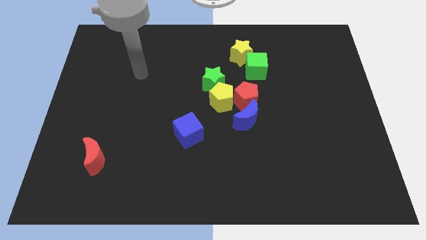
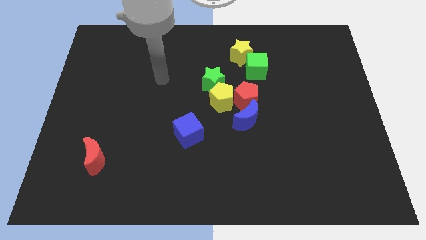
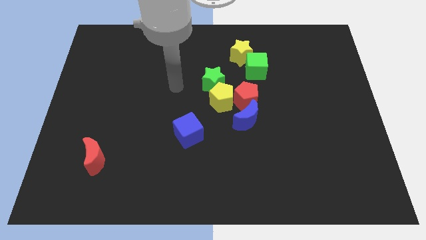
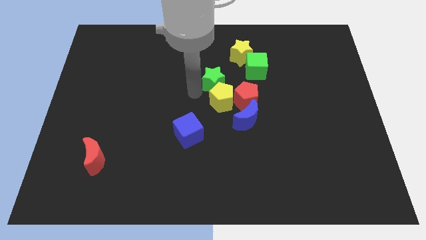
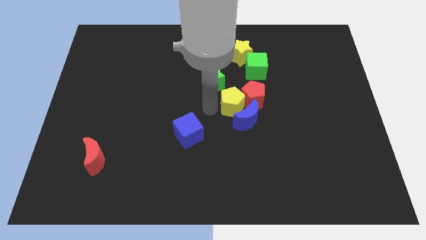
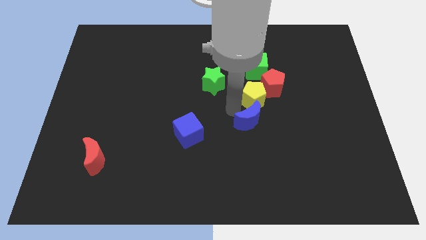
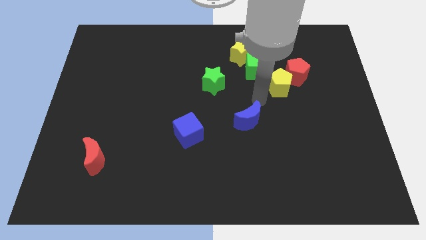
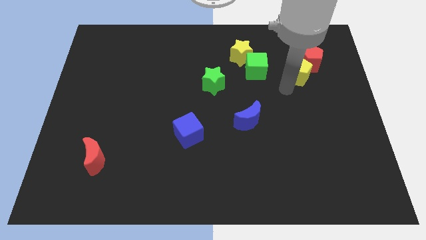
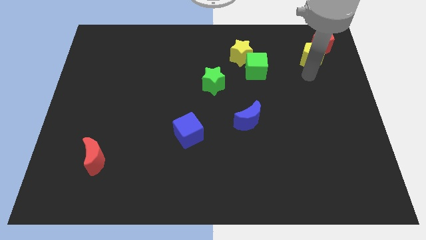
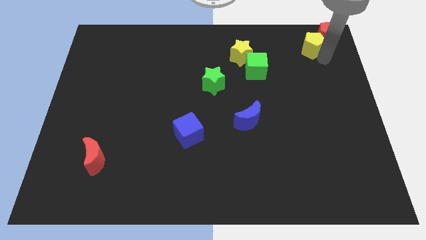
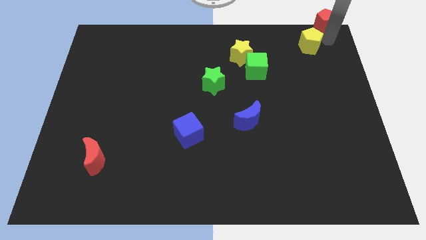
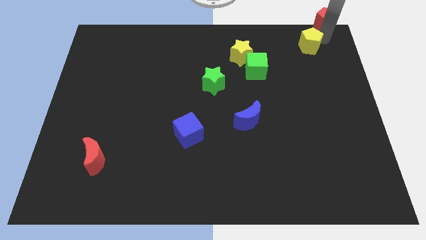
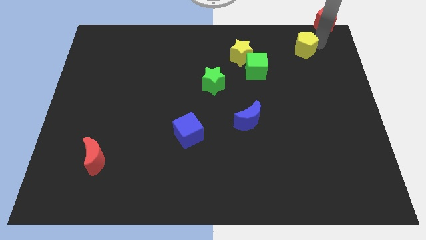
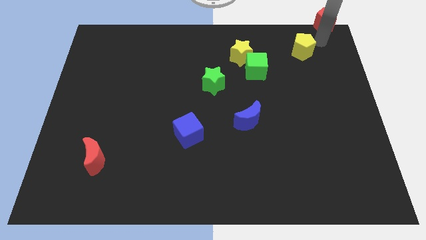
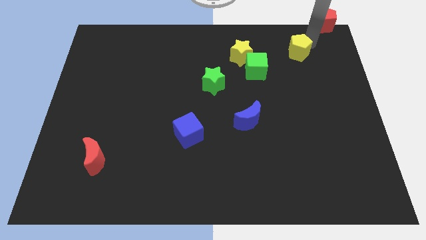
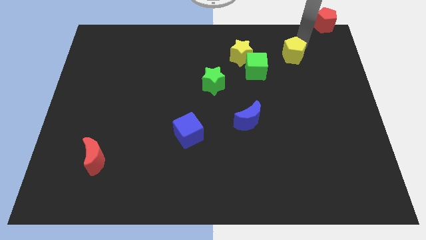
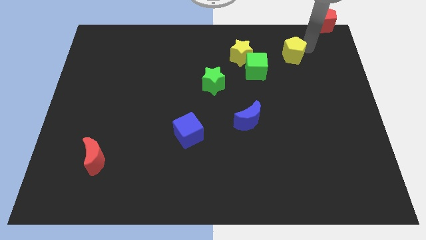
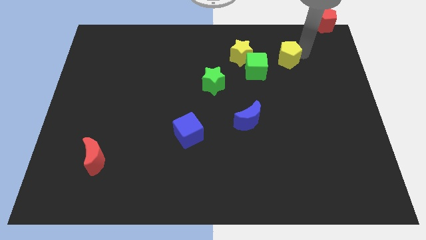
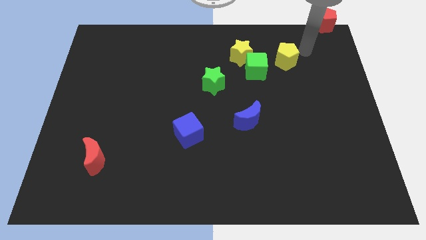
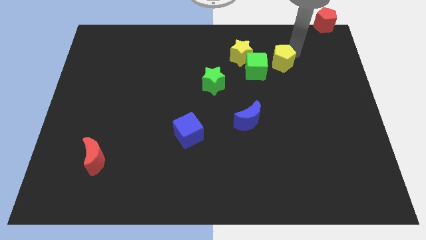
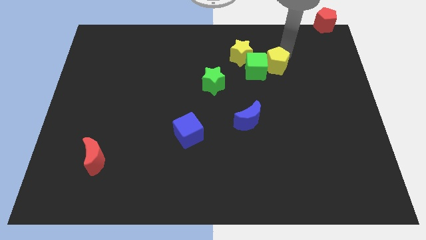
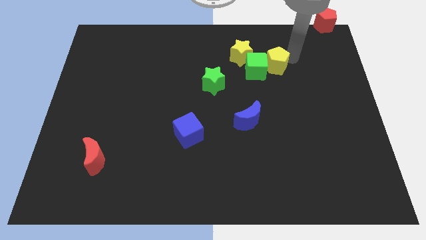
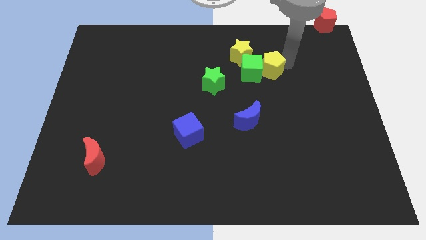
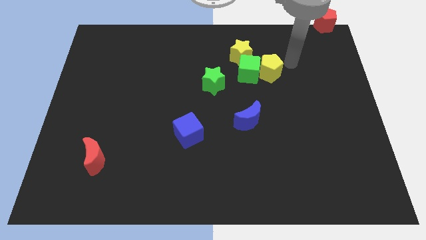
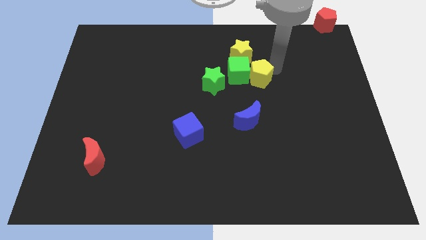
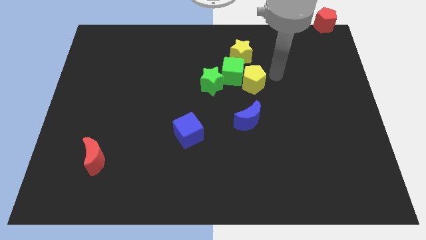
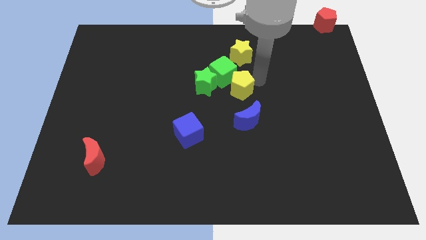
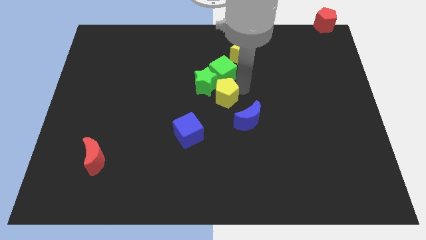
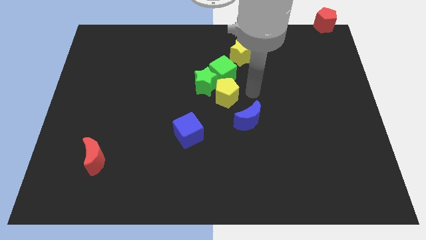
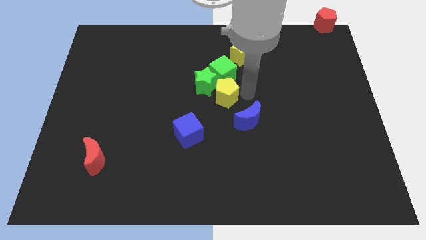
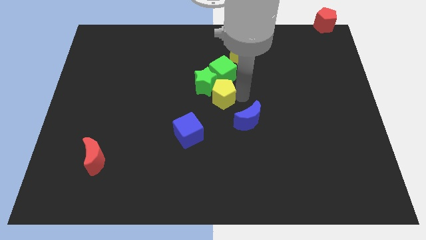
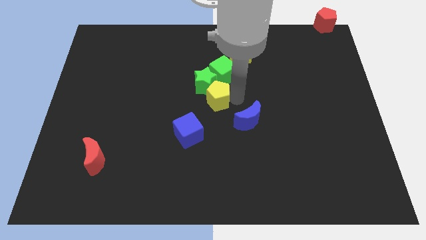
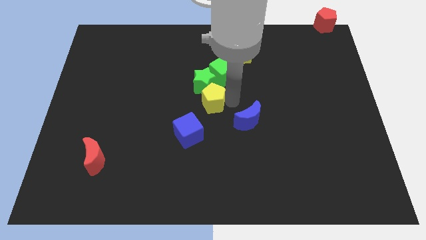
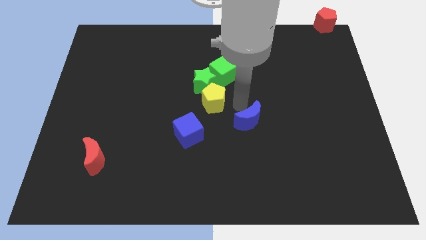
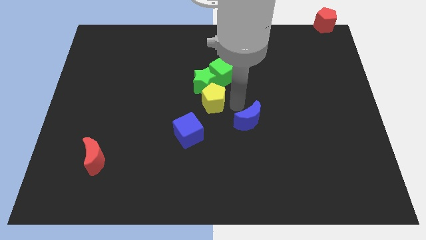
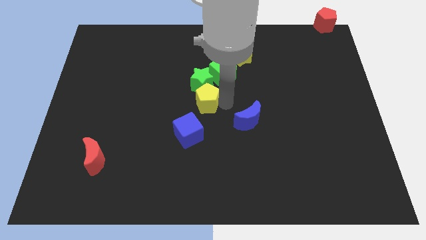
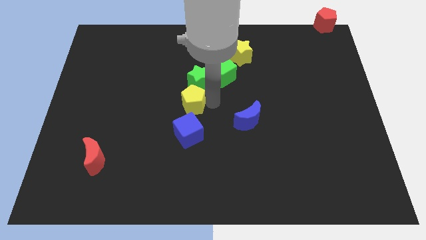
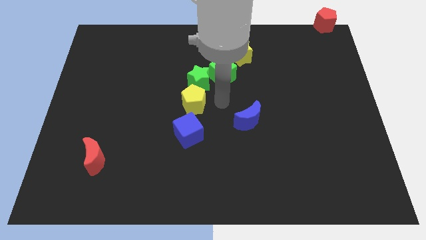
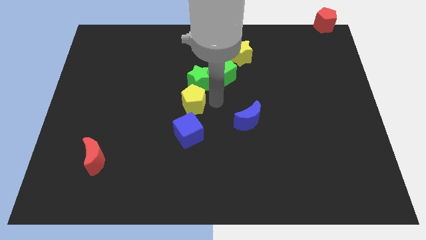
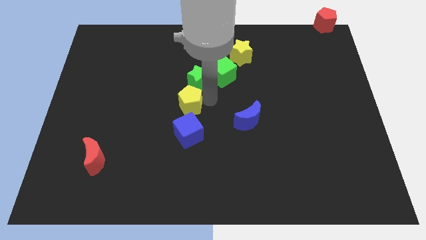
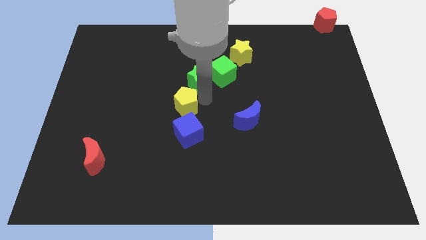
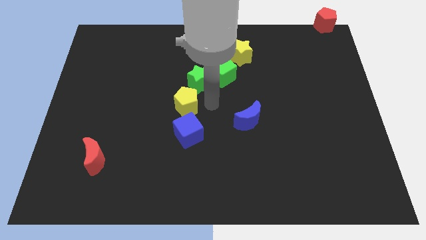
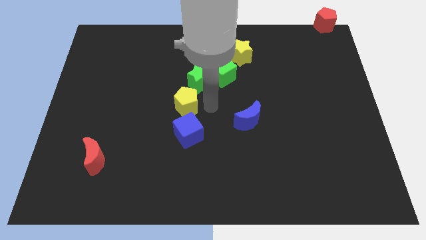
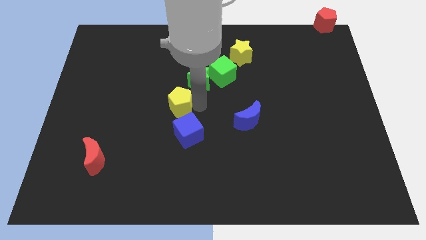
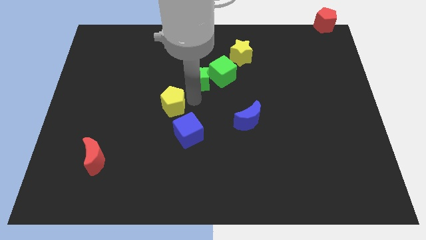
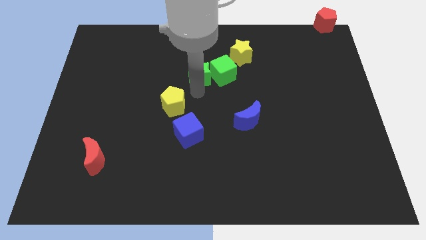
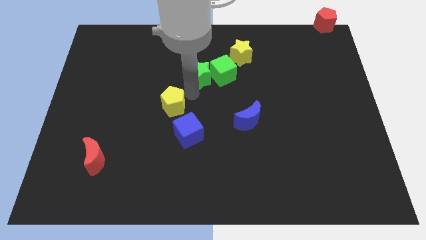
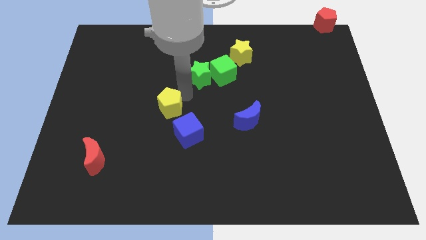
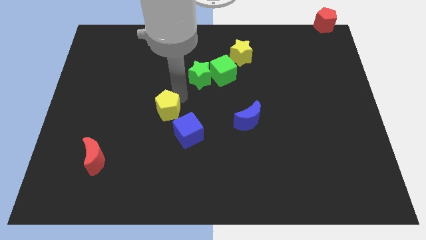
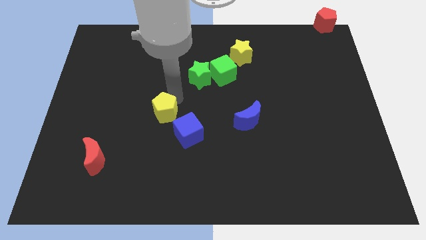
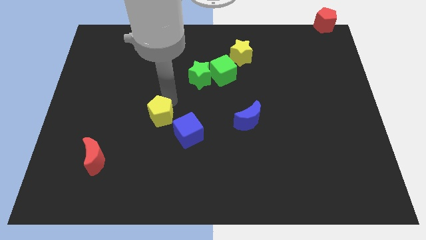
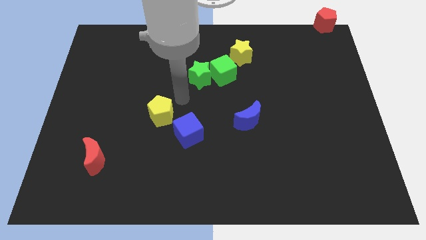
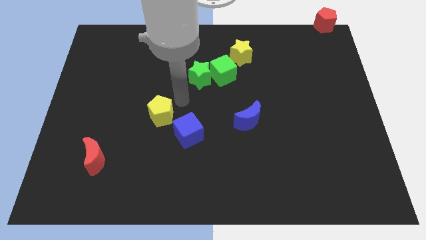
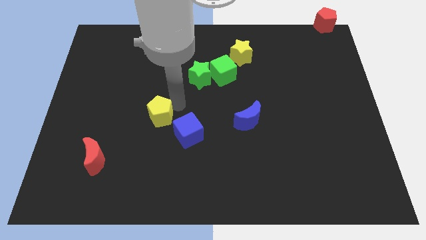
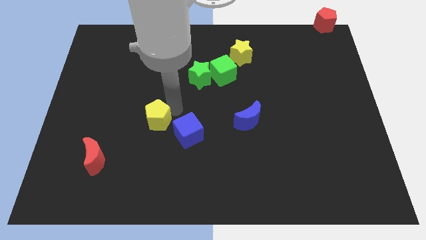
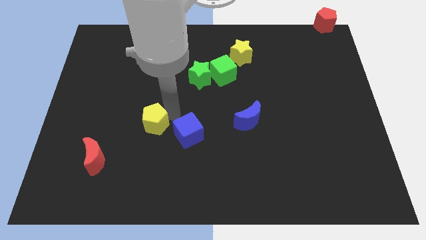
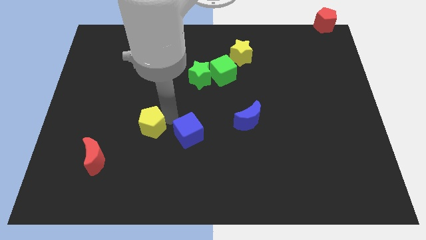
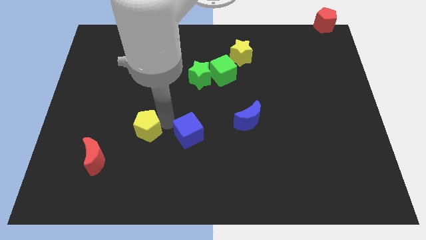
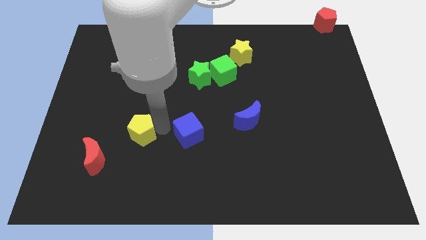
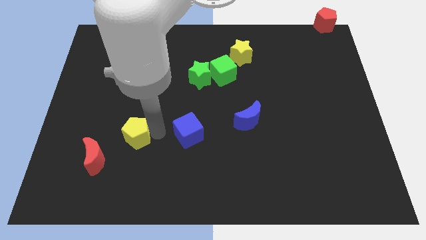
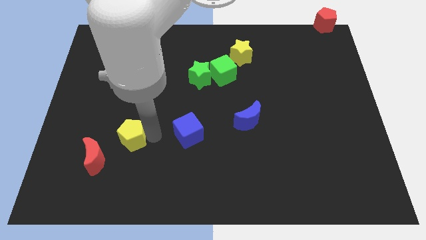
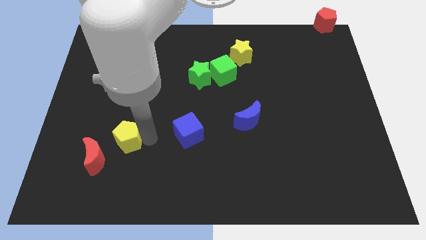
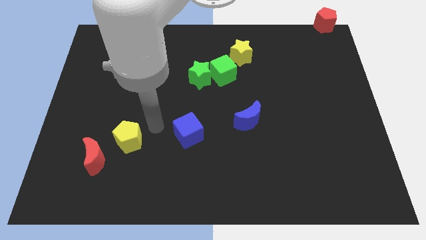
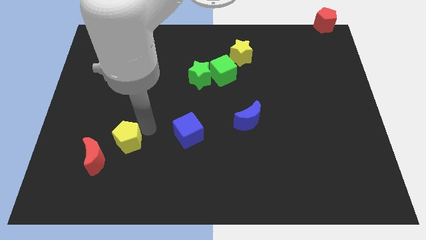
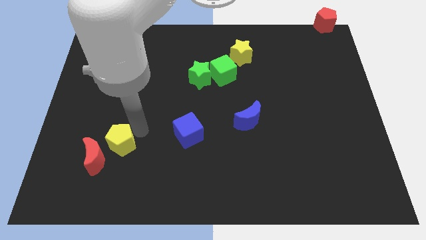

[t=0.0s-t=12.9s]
push the yellow pentagon close to the red moon

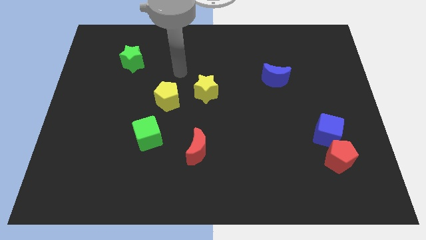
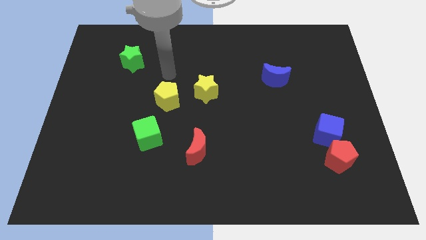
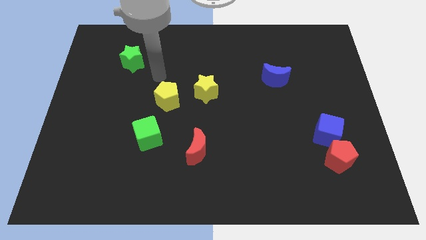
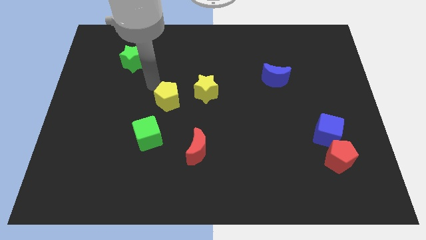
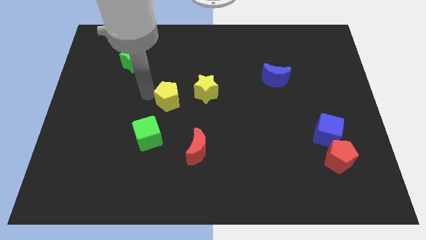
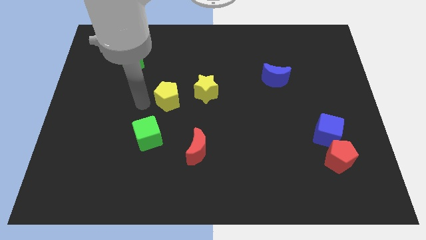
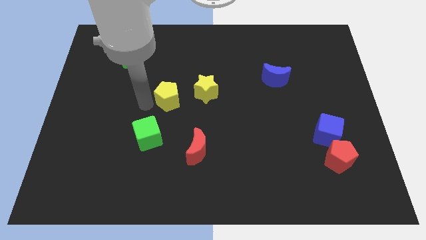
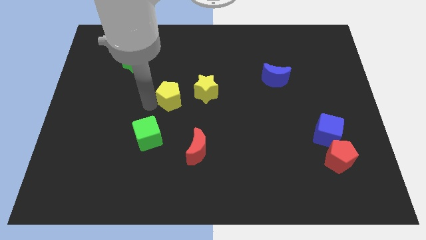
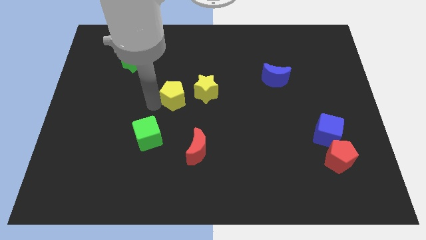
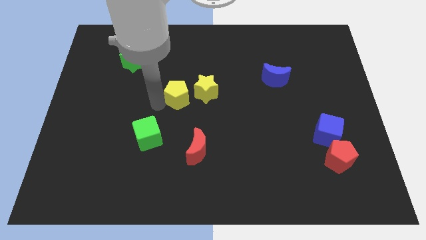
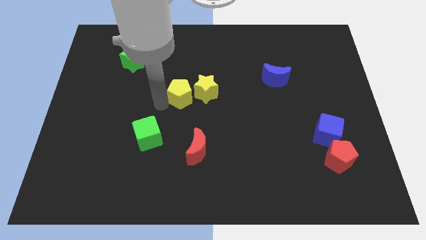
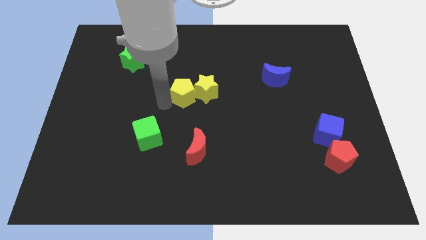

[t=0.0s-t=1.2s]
push the yellow pentagon towards the yellow star
